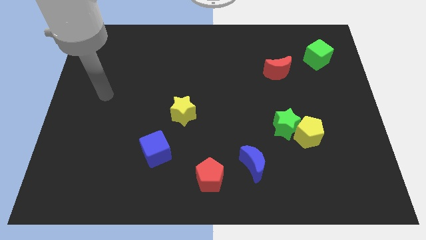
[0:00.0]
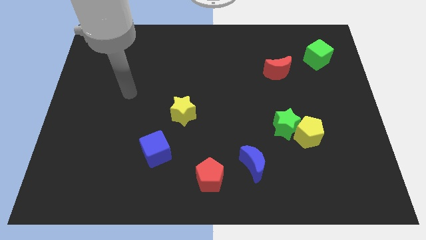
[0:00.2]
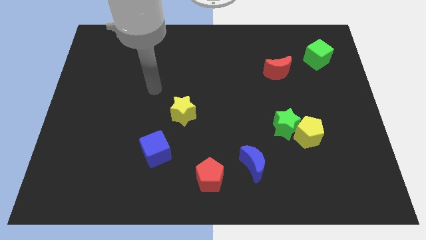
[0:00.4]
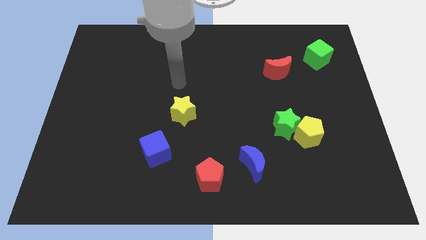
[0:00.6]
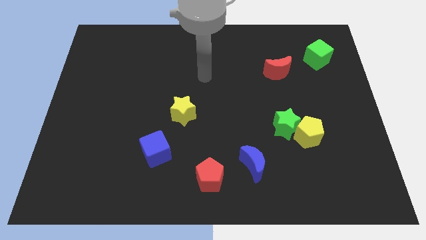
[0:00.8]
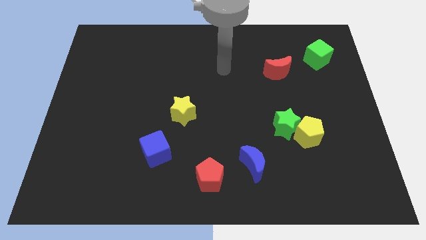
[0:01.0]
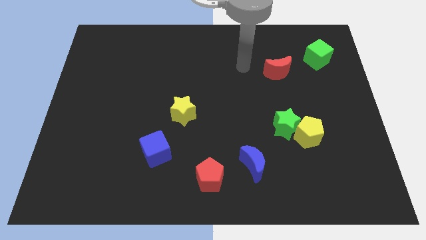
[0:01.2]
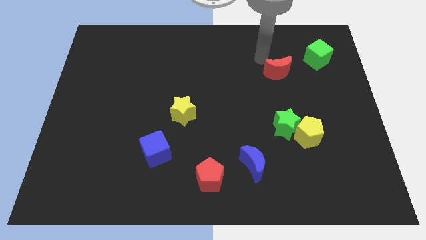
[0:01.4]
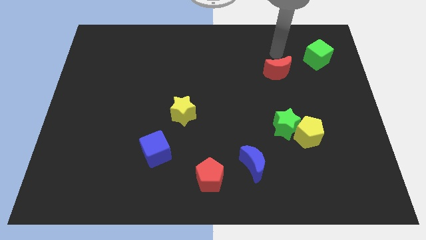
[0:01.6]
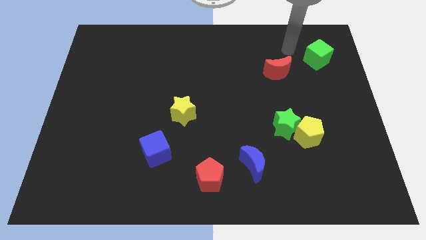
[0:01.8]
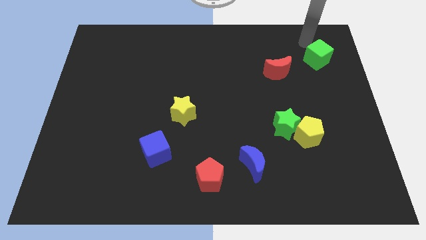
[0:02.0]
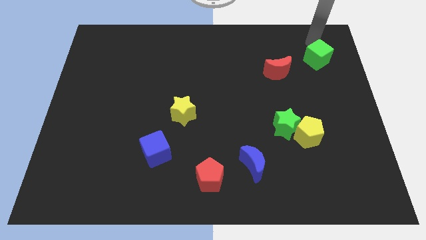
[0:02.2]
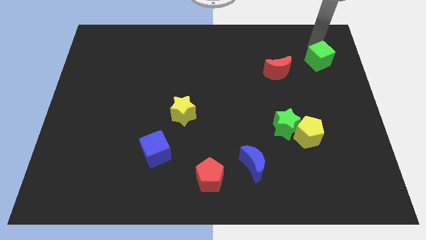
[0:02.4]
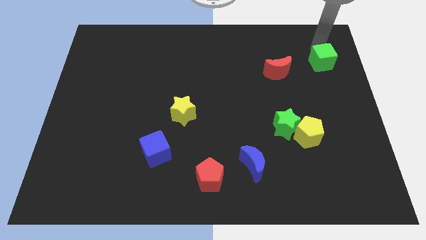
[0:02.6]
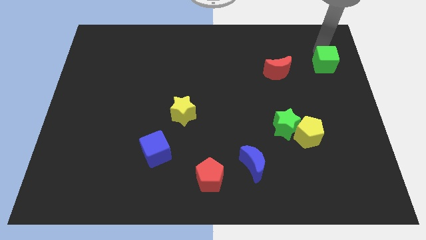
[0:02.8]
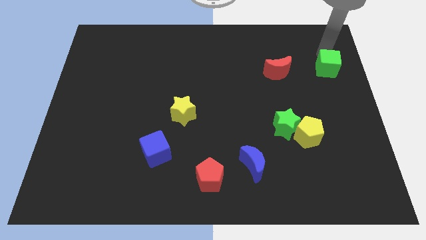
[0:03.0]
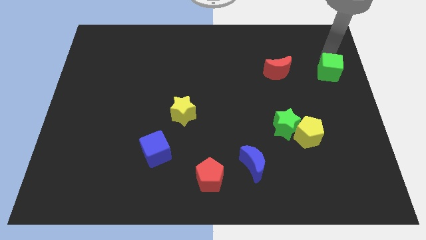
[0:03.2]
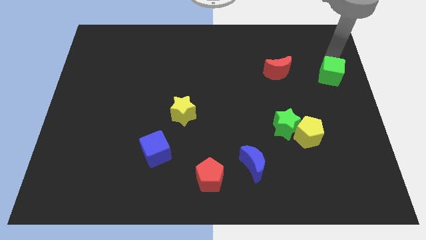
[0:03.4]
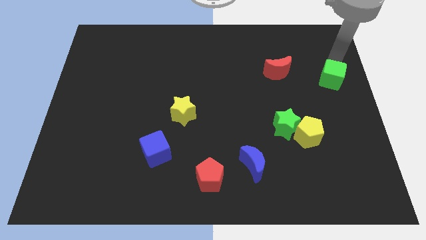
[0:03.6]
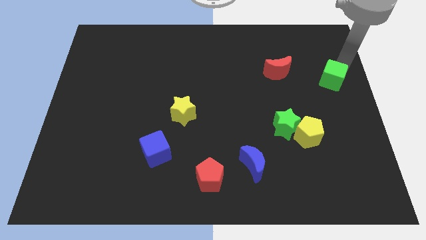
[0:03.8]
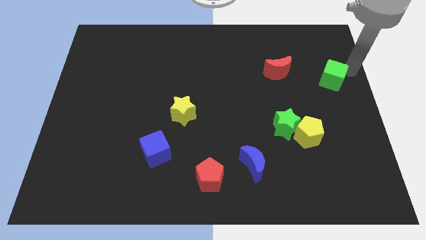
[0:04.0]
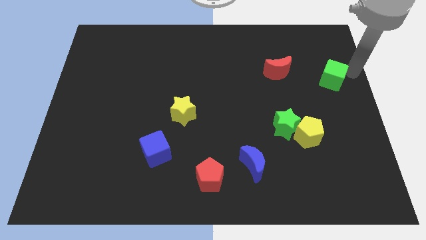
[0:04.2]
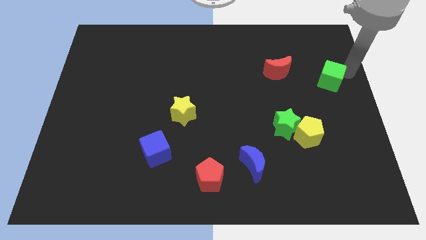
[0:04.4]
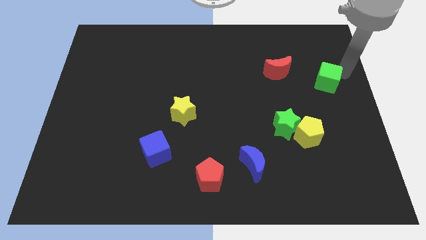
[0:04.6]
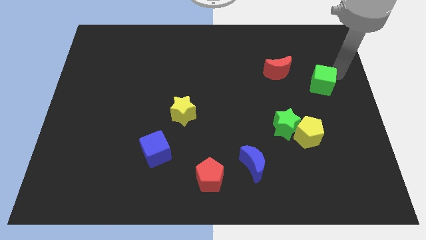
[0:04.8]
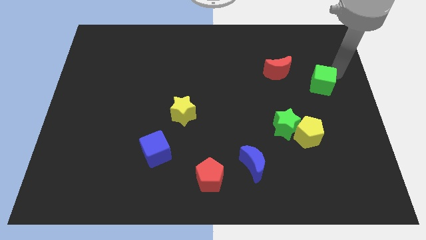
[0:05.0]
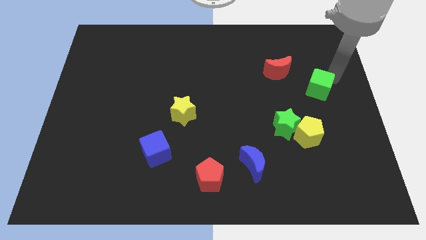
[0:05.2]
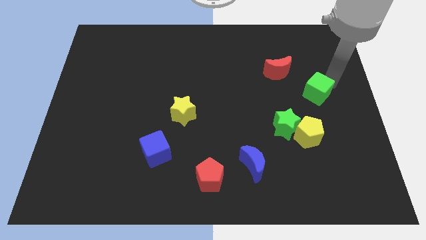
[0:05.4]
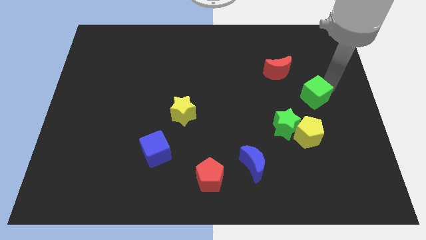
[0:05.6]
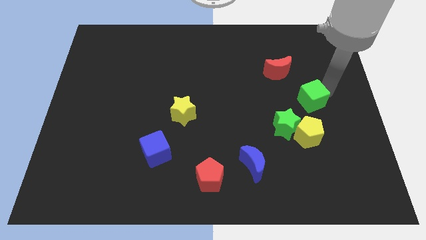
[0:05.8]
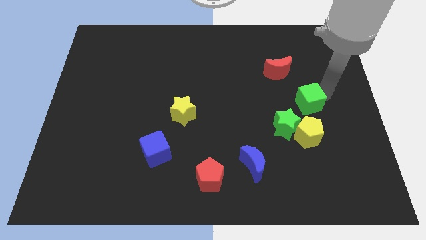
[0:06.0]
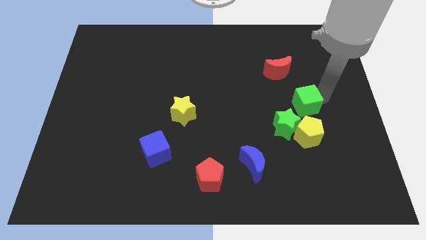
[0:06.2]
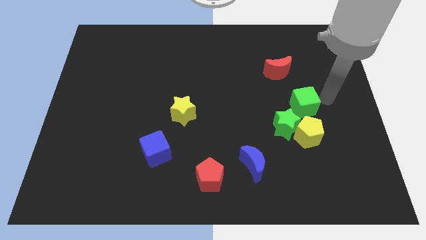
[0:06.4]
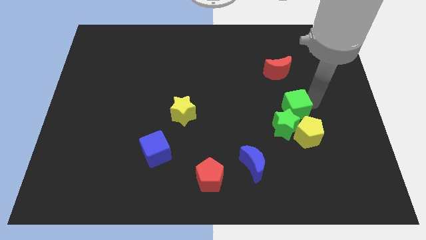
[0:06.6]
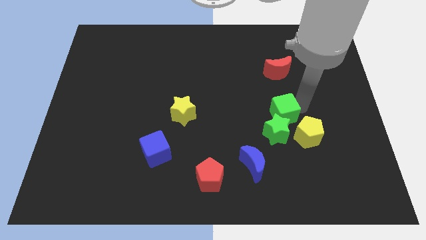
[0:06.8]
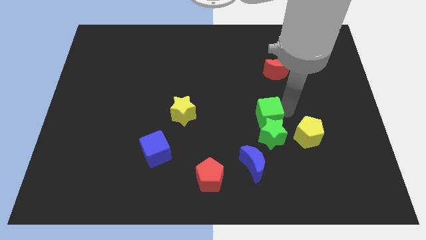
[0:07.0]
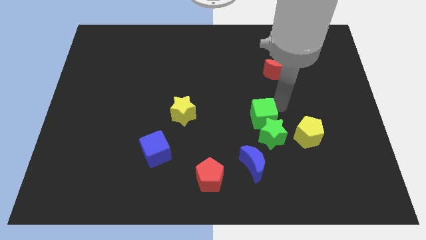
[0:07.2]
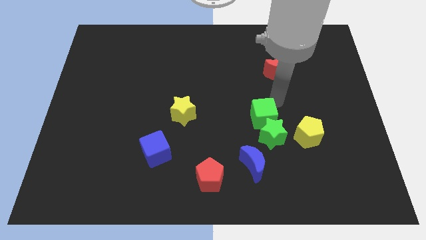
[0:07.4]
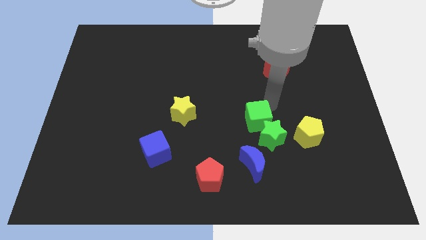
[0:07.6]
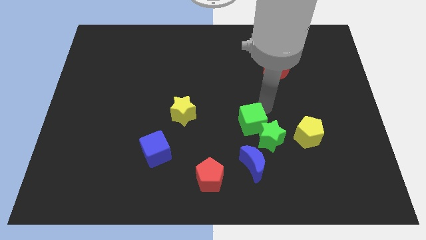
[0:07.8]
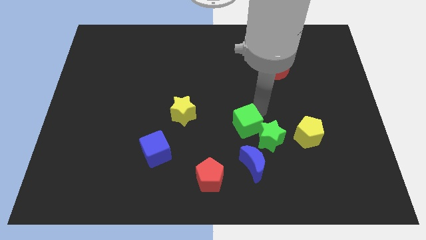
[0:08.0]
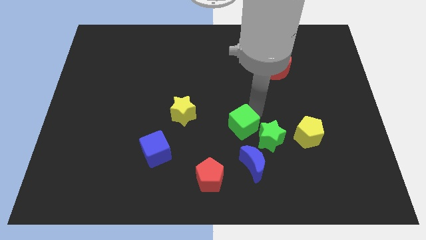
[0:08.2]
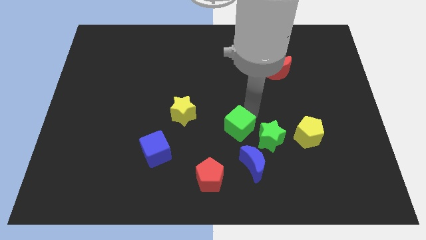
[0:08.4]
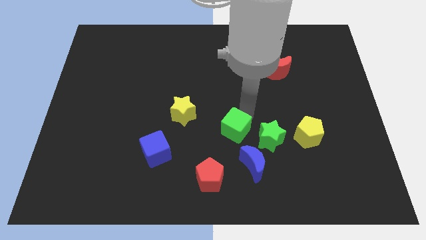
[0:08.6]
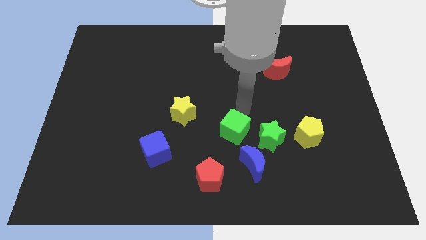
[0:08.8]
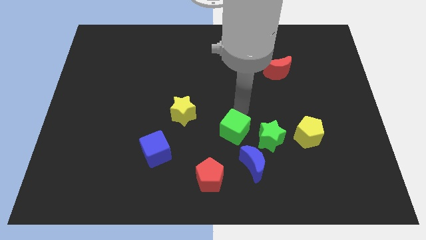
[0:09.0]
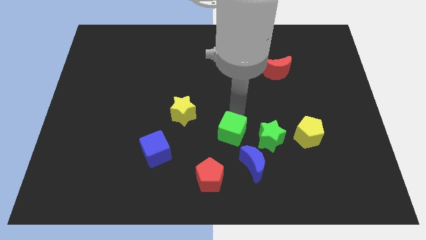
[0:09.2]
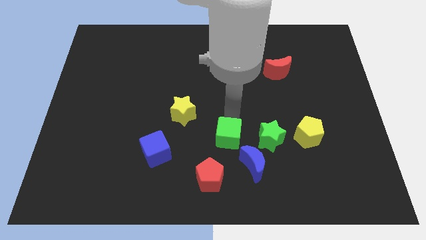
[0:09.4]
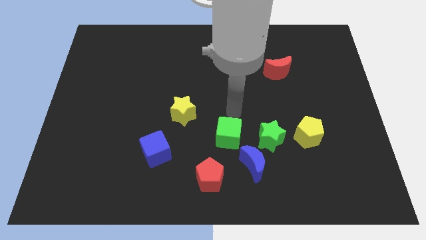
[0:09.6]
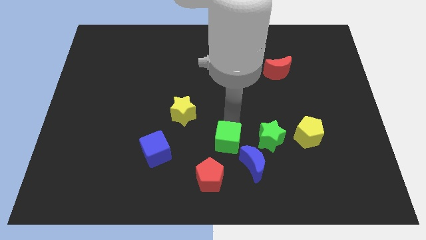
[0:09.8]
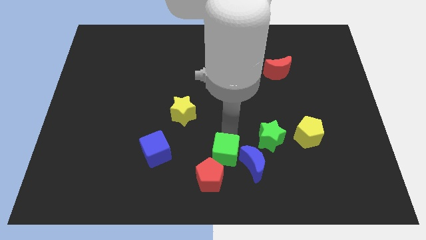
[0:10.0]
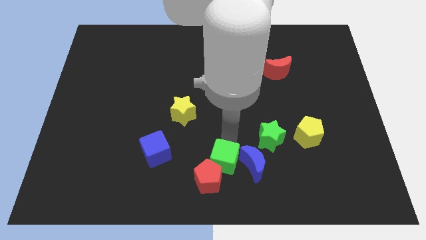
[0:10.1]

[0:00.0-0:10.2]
move the green cube towards the red pentagon

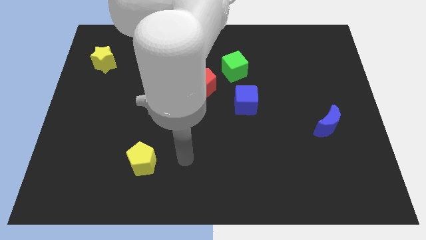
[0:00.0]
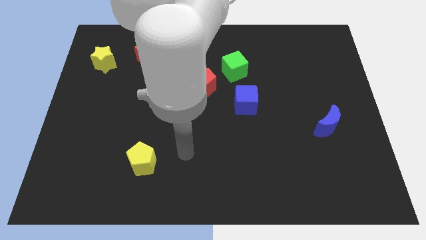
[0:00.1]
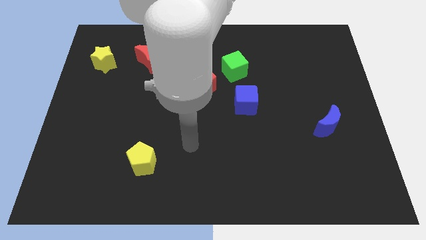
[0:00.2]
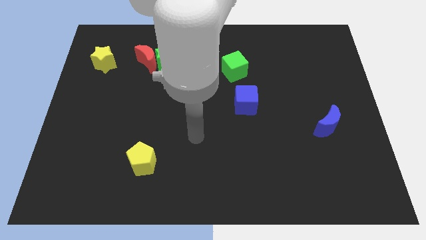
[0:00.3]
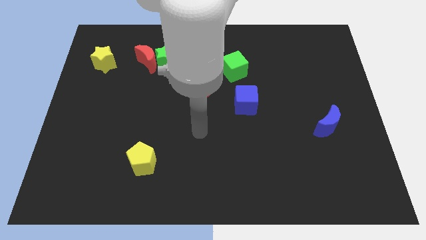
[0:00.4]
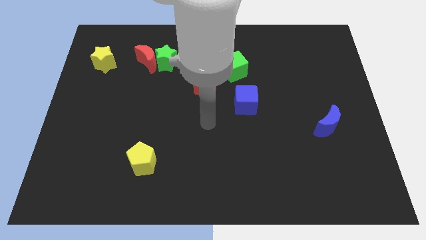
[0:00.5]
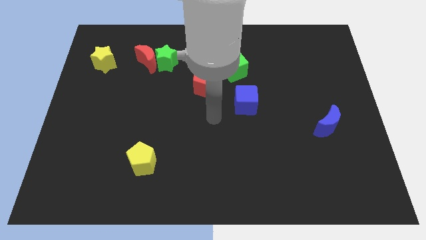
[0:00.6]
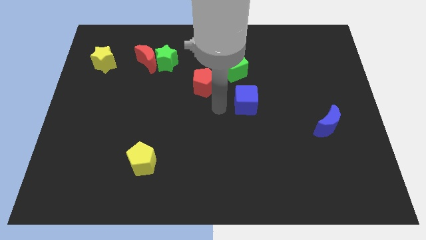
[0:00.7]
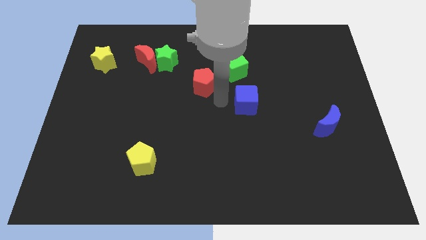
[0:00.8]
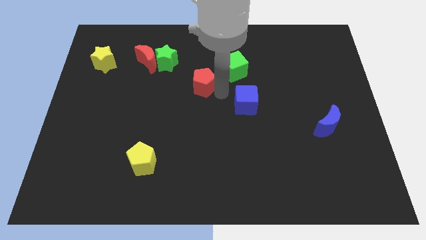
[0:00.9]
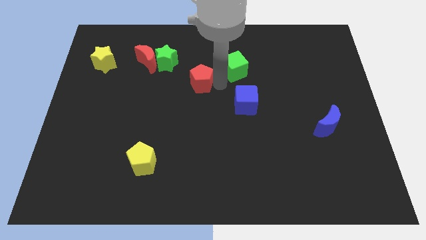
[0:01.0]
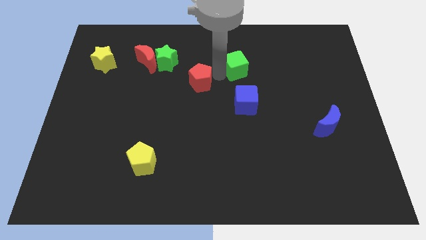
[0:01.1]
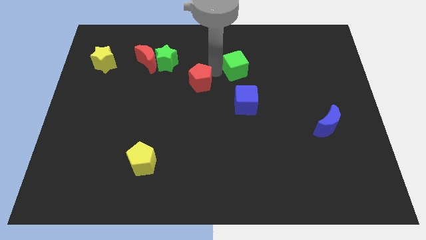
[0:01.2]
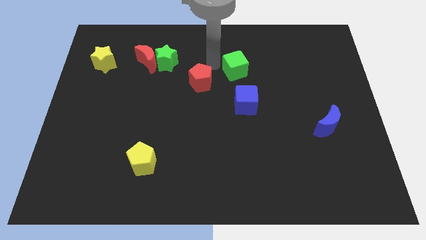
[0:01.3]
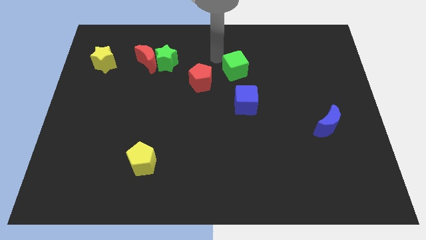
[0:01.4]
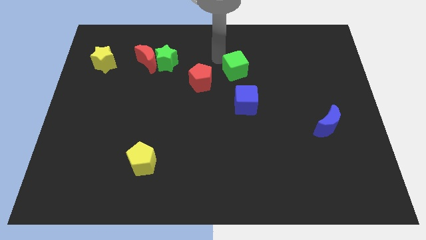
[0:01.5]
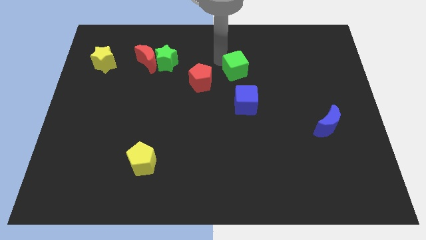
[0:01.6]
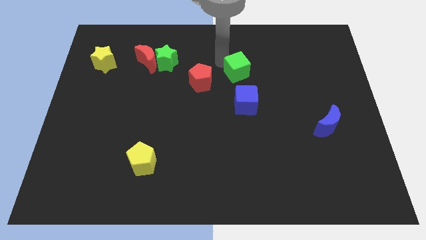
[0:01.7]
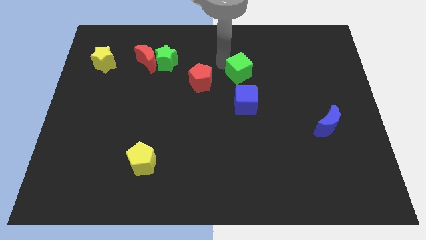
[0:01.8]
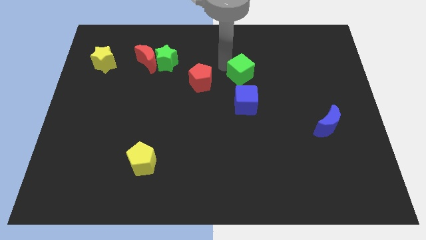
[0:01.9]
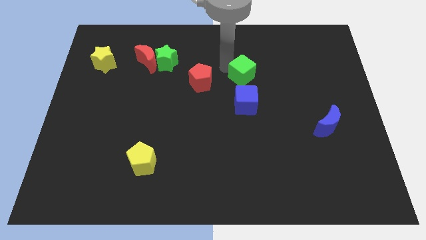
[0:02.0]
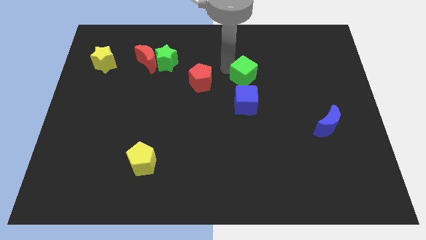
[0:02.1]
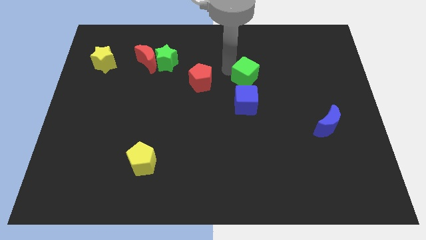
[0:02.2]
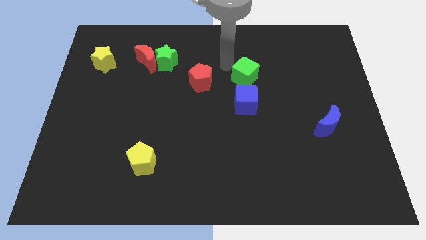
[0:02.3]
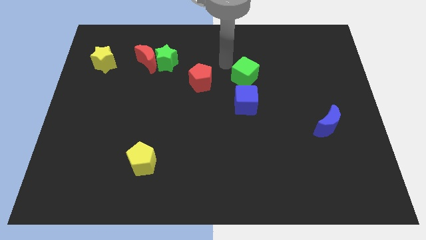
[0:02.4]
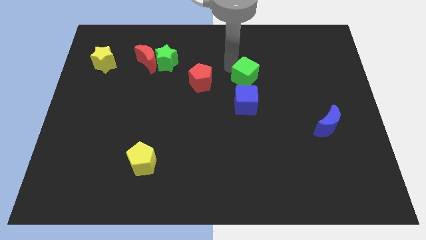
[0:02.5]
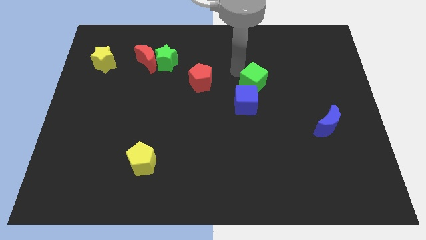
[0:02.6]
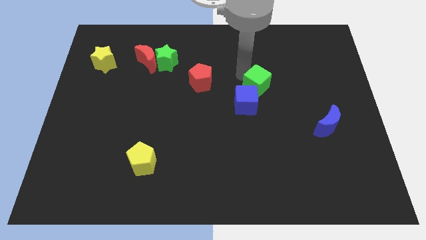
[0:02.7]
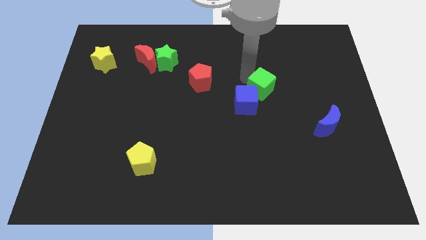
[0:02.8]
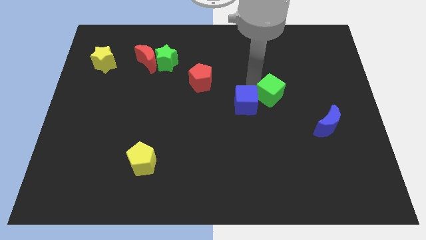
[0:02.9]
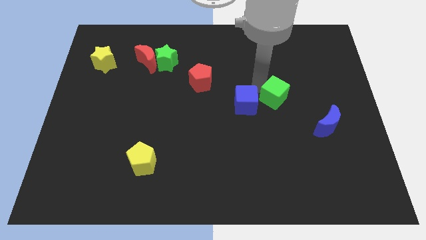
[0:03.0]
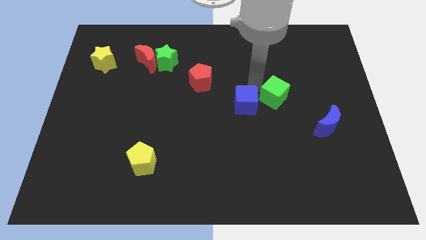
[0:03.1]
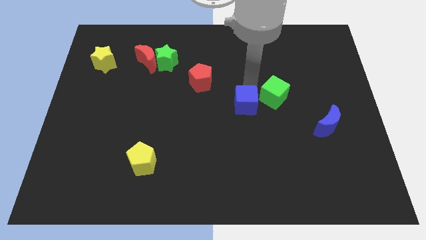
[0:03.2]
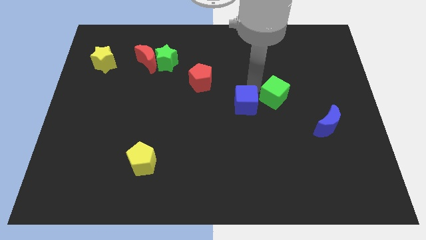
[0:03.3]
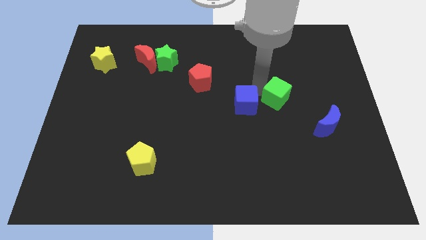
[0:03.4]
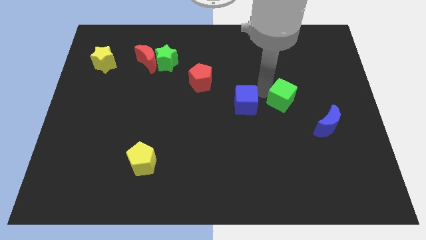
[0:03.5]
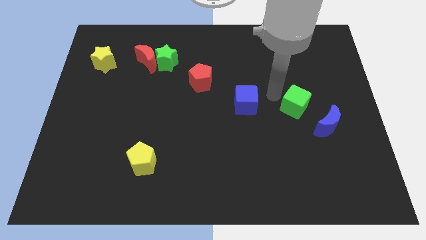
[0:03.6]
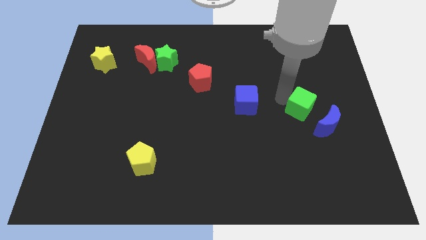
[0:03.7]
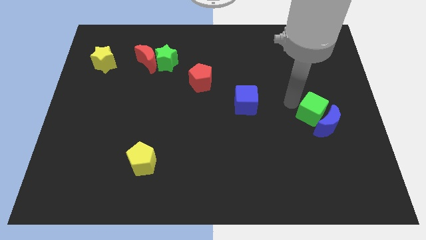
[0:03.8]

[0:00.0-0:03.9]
move the green cube to the blue moon
